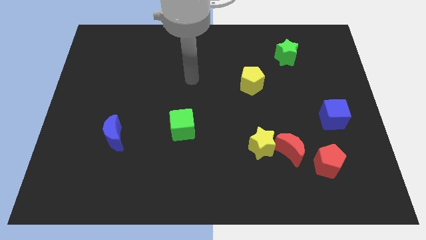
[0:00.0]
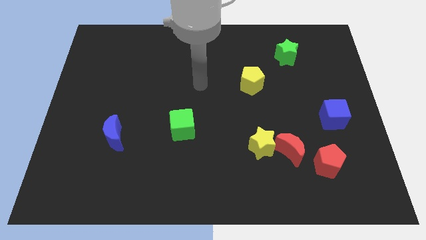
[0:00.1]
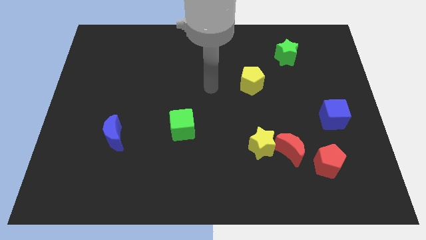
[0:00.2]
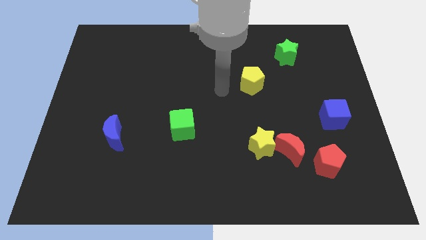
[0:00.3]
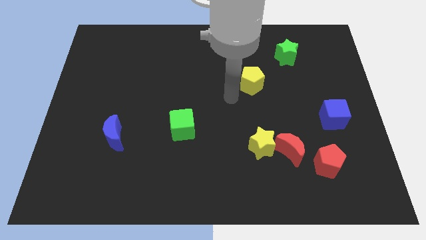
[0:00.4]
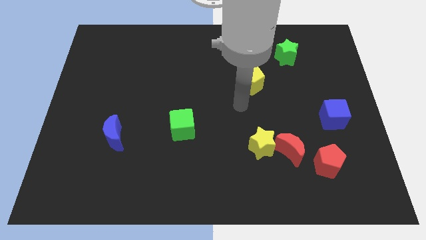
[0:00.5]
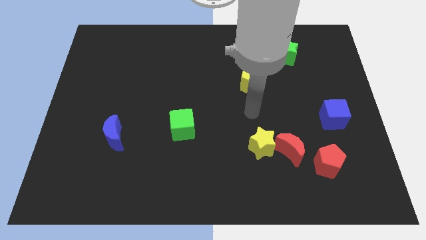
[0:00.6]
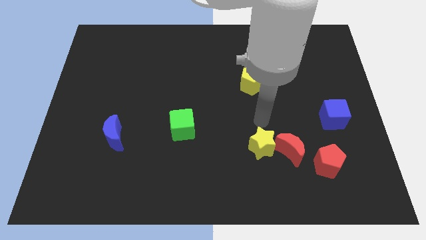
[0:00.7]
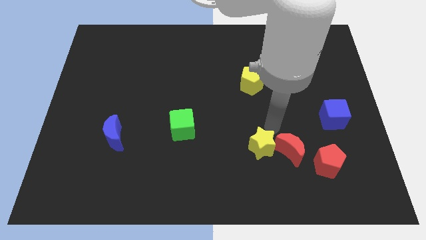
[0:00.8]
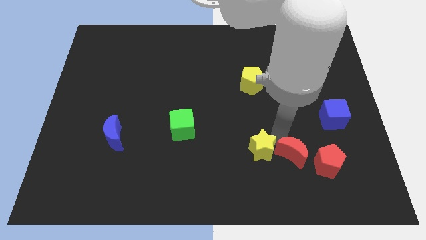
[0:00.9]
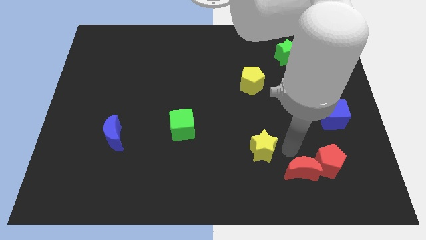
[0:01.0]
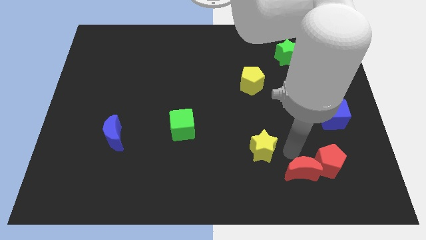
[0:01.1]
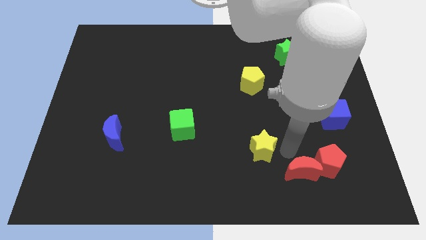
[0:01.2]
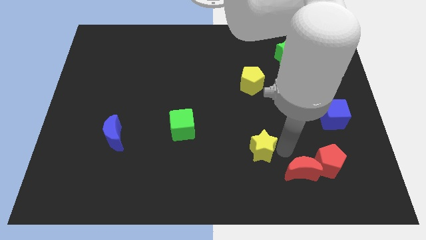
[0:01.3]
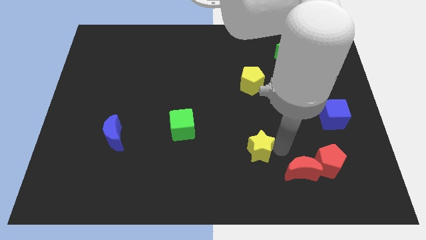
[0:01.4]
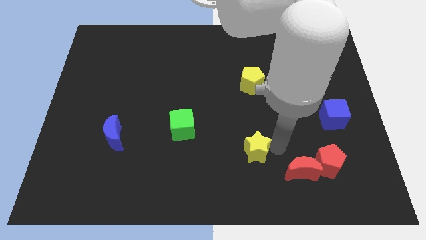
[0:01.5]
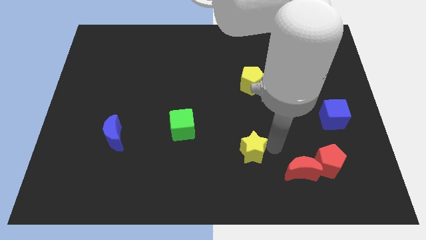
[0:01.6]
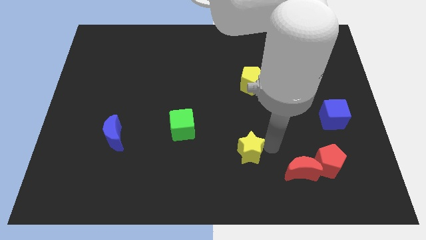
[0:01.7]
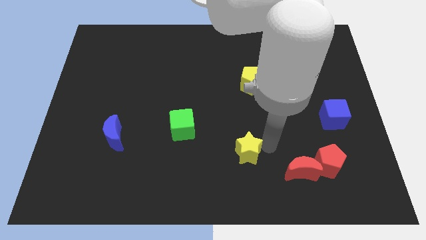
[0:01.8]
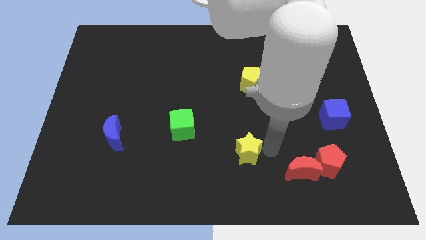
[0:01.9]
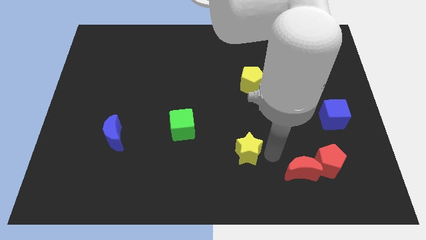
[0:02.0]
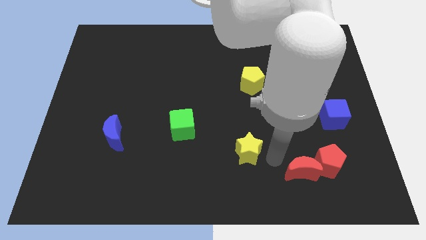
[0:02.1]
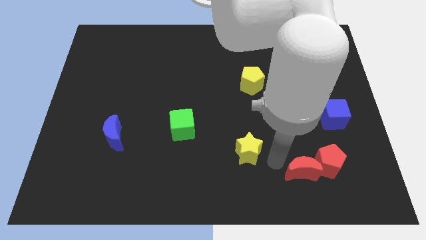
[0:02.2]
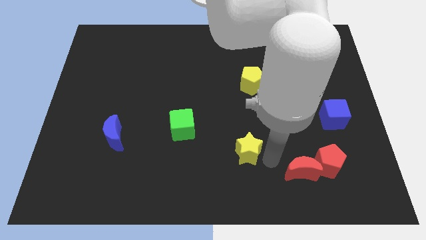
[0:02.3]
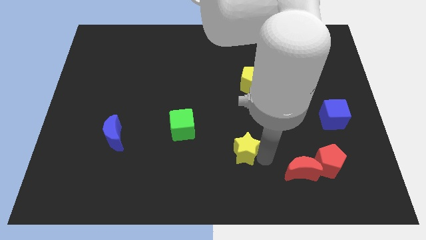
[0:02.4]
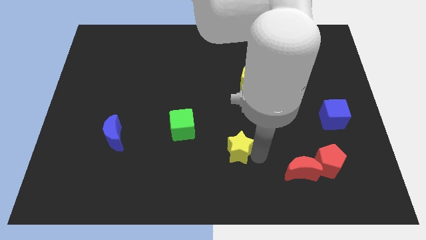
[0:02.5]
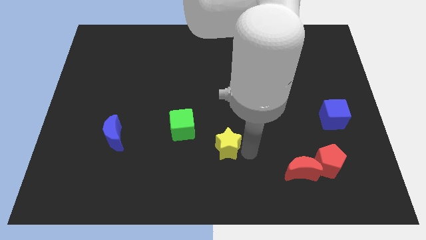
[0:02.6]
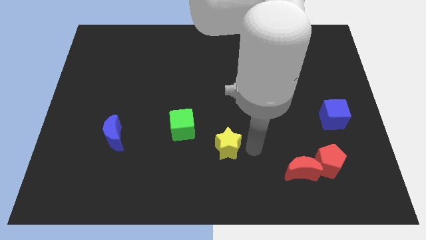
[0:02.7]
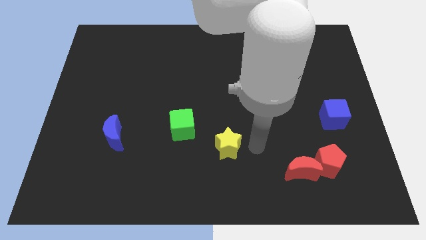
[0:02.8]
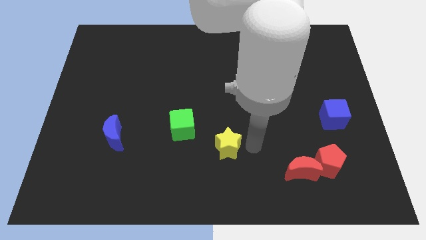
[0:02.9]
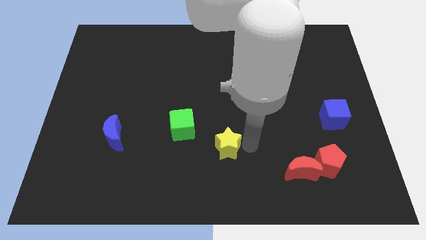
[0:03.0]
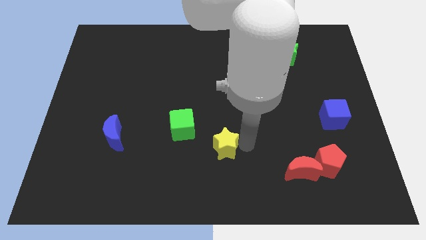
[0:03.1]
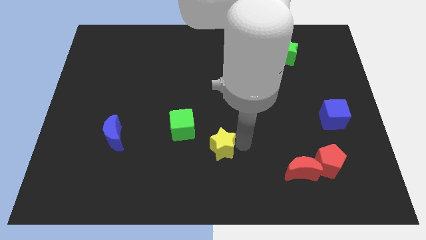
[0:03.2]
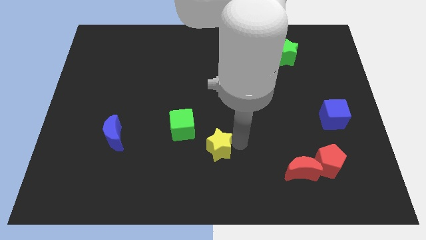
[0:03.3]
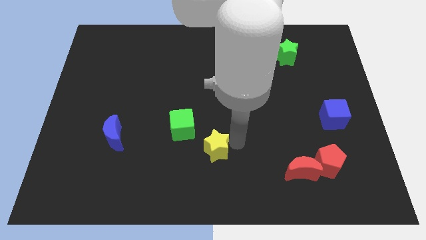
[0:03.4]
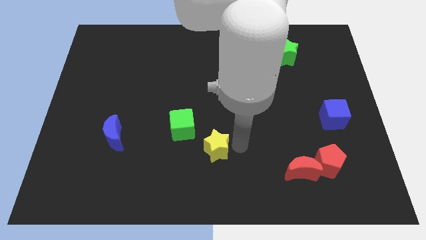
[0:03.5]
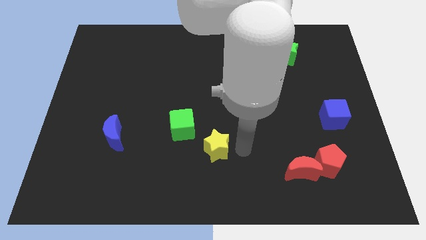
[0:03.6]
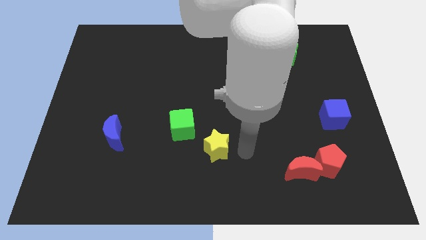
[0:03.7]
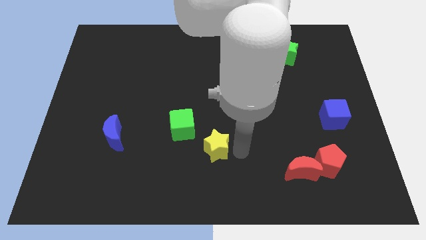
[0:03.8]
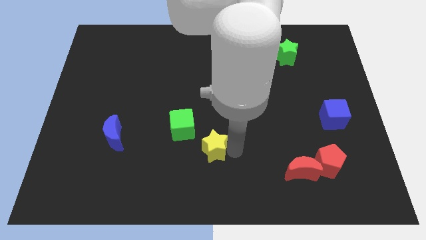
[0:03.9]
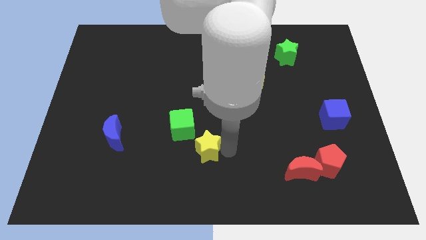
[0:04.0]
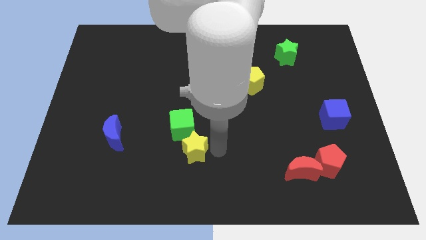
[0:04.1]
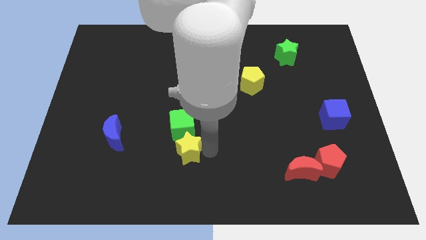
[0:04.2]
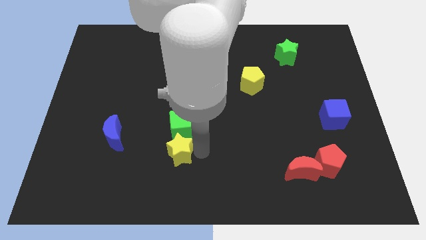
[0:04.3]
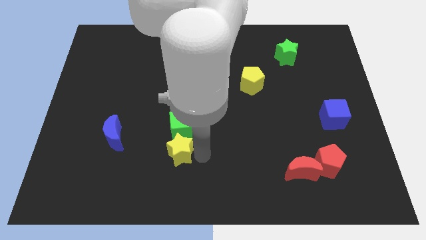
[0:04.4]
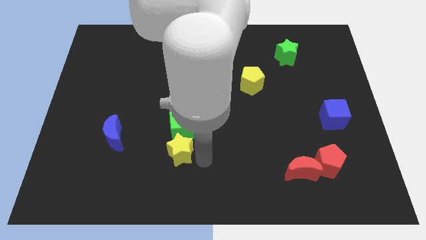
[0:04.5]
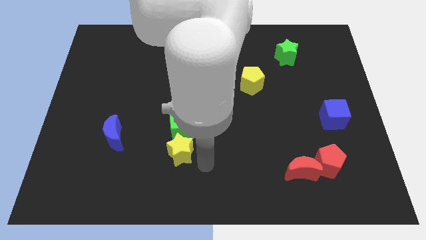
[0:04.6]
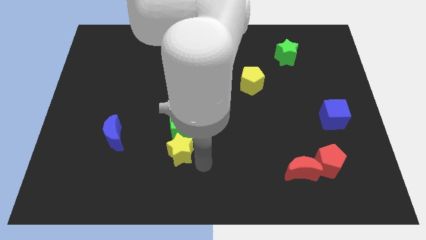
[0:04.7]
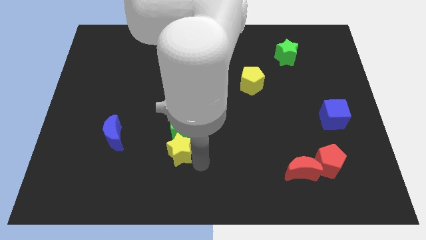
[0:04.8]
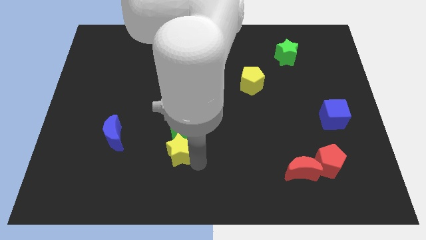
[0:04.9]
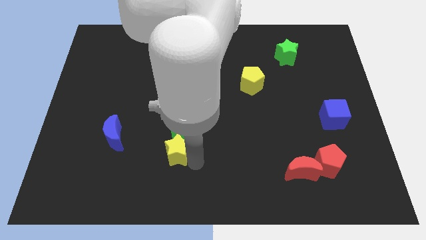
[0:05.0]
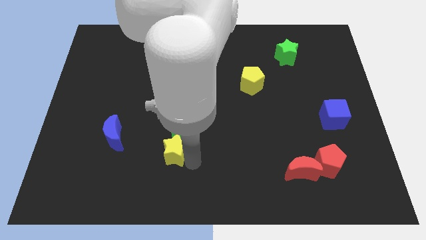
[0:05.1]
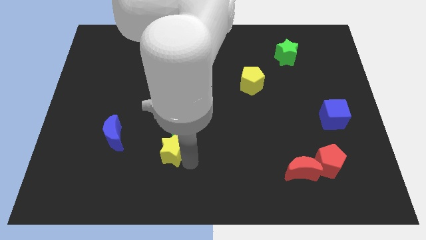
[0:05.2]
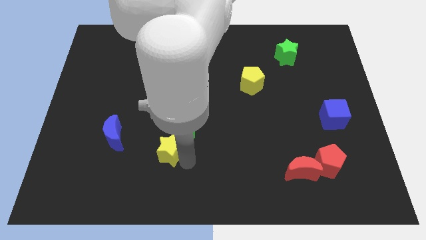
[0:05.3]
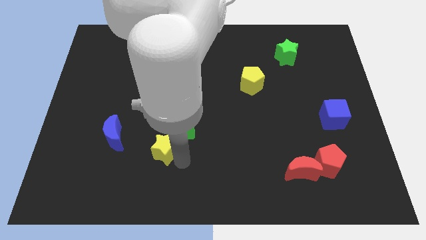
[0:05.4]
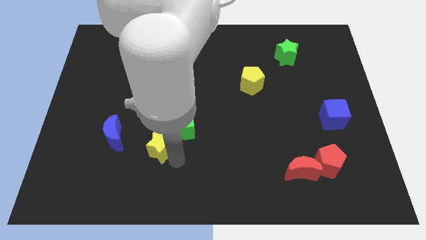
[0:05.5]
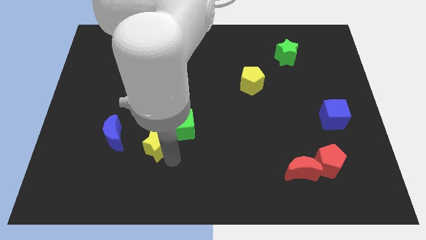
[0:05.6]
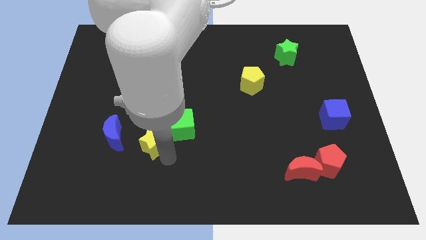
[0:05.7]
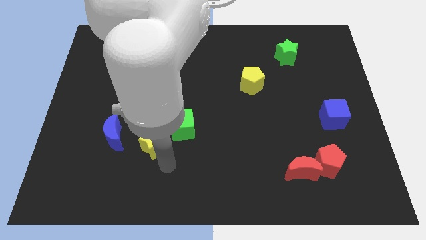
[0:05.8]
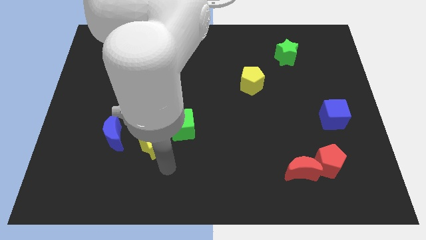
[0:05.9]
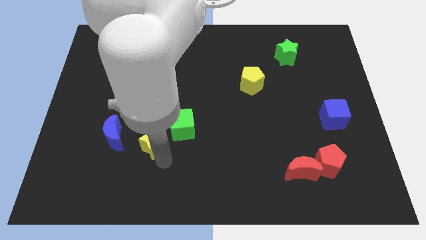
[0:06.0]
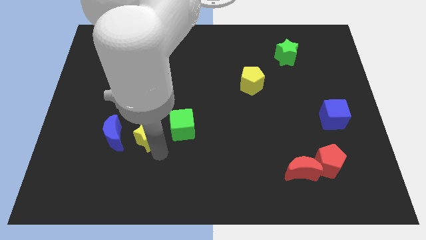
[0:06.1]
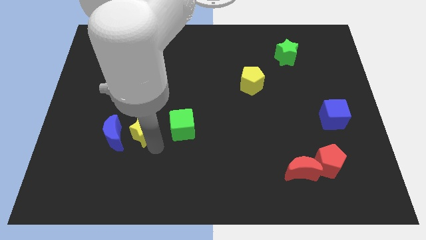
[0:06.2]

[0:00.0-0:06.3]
put the yellow star to the top right of the blue moon

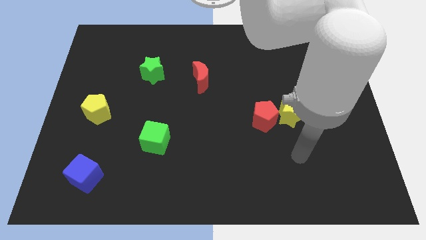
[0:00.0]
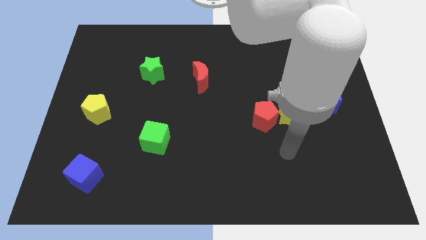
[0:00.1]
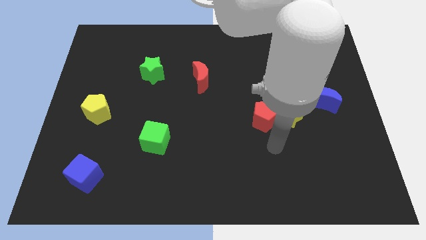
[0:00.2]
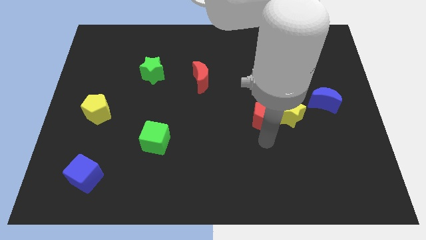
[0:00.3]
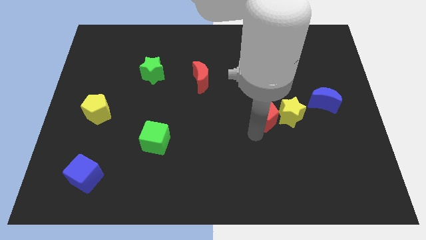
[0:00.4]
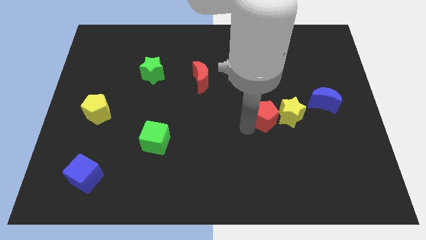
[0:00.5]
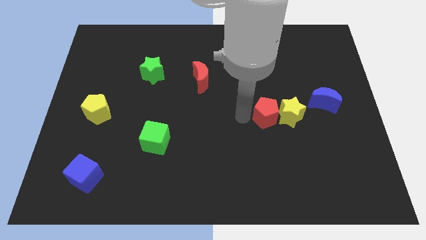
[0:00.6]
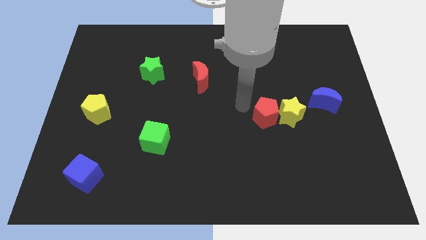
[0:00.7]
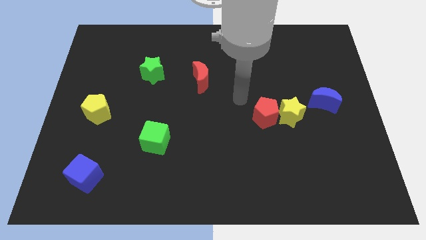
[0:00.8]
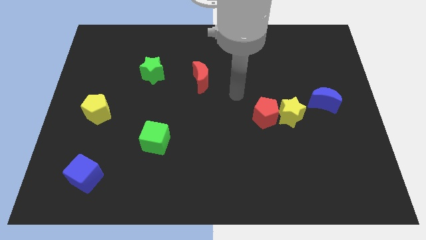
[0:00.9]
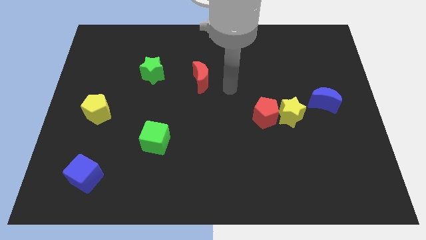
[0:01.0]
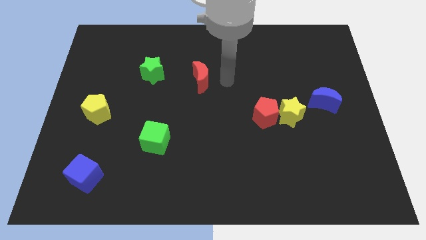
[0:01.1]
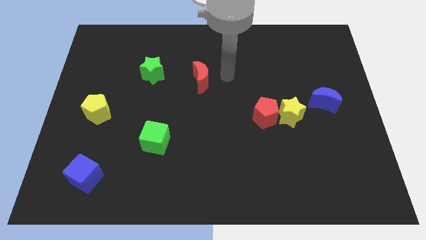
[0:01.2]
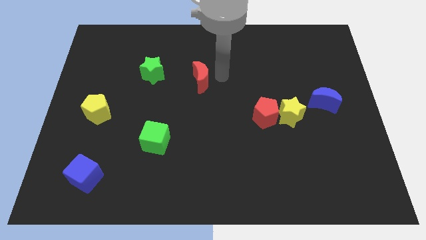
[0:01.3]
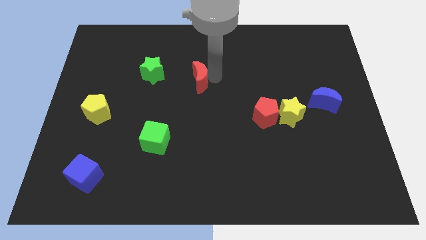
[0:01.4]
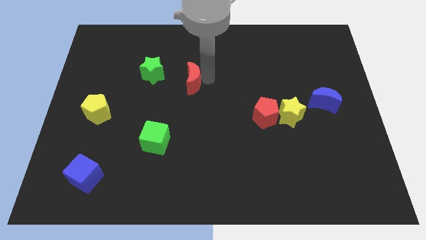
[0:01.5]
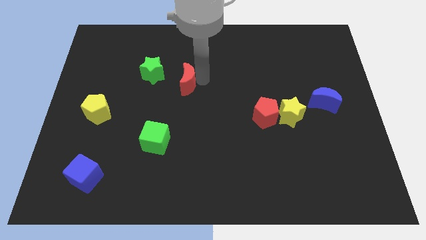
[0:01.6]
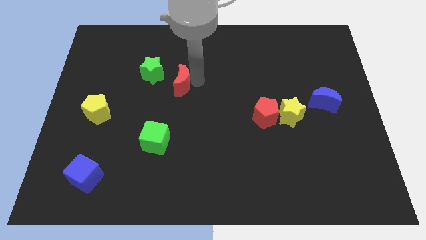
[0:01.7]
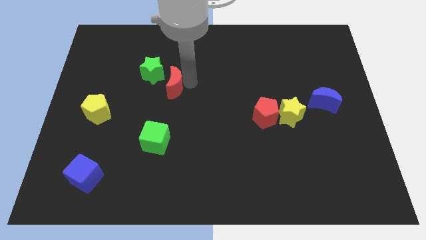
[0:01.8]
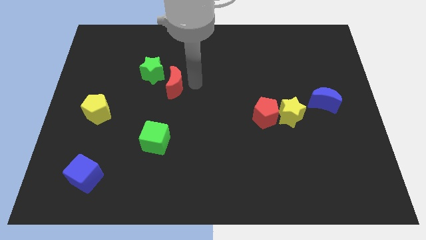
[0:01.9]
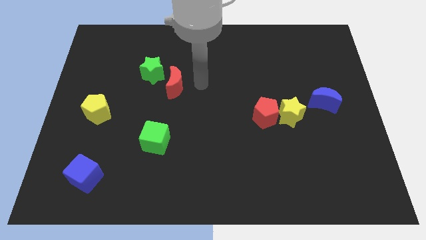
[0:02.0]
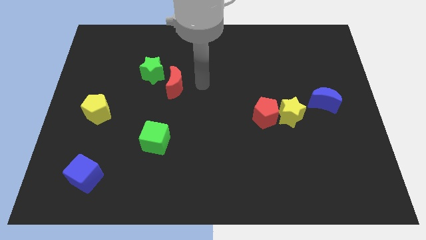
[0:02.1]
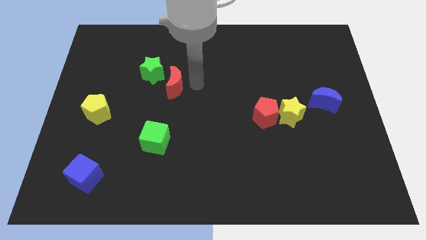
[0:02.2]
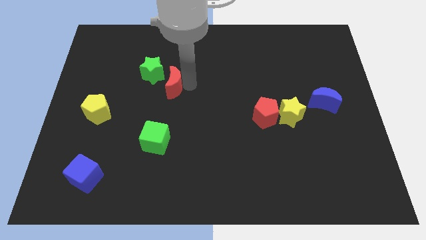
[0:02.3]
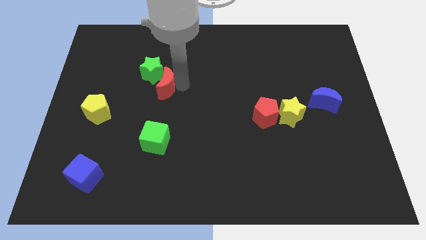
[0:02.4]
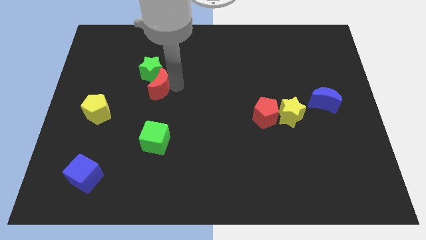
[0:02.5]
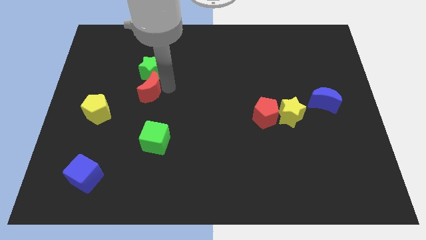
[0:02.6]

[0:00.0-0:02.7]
push the red moon to the bottom left of the green star
